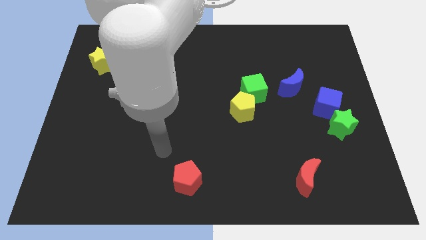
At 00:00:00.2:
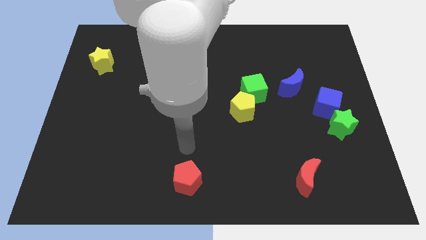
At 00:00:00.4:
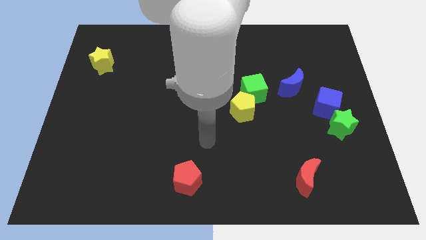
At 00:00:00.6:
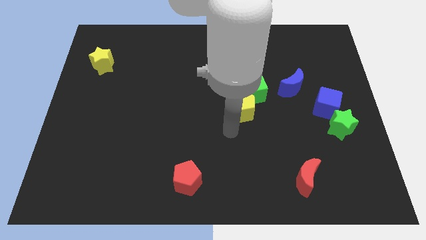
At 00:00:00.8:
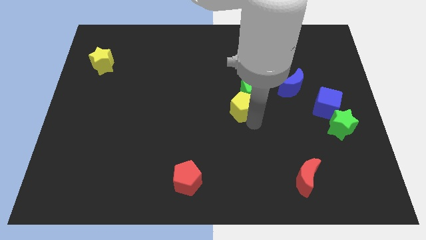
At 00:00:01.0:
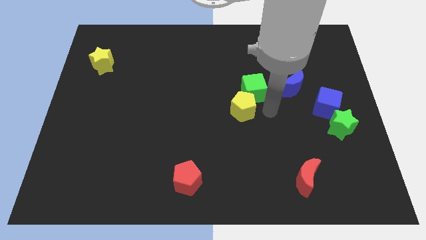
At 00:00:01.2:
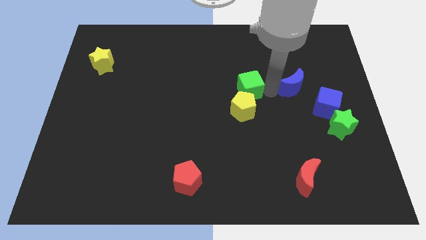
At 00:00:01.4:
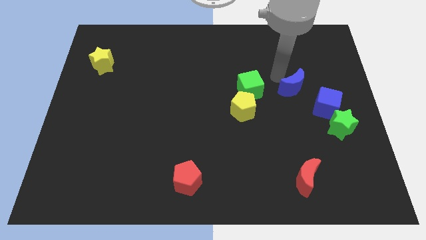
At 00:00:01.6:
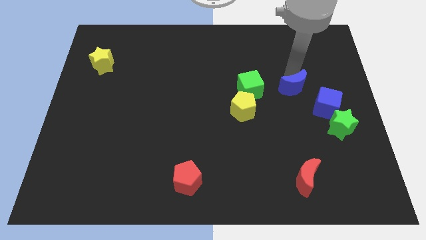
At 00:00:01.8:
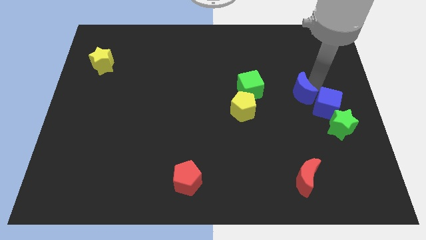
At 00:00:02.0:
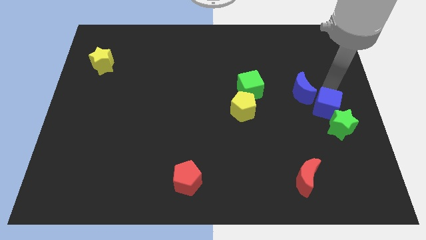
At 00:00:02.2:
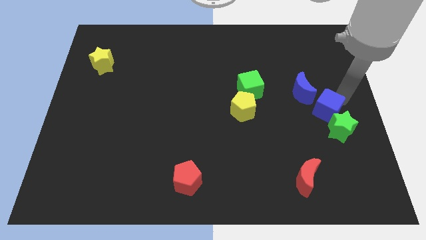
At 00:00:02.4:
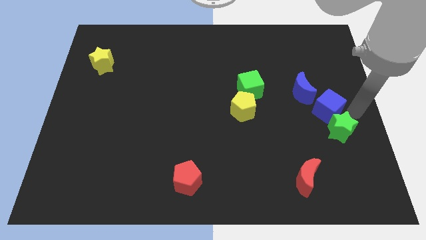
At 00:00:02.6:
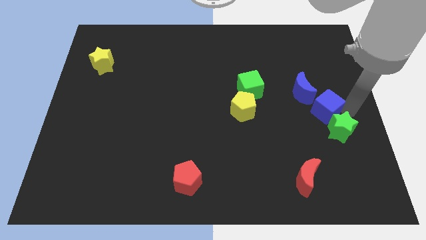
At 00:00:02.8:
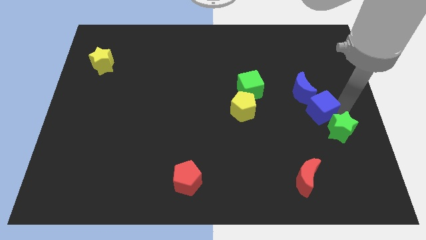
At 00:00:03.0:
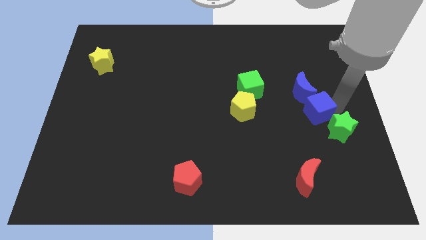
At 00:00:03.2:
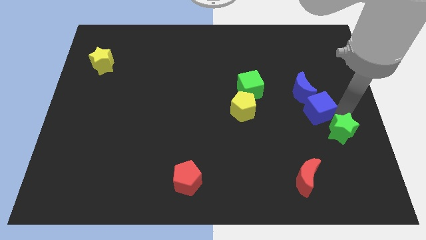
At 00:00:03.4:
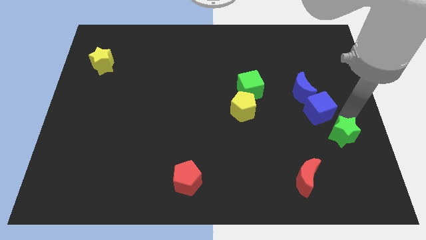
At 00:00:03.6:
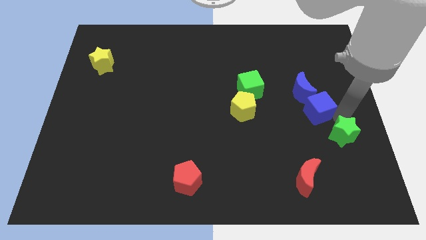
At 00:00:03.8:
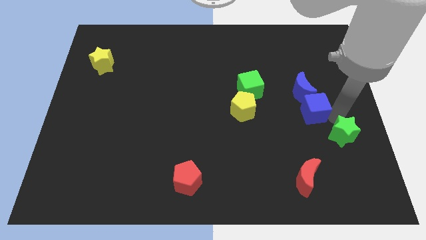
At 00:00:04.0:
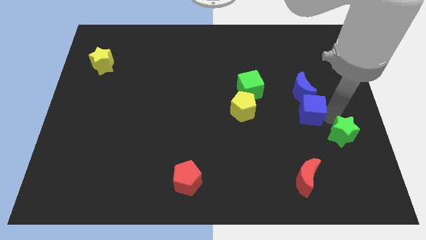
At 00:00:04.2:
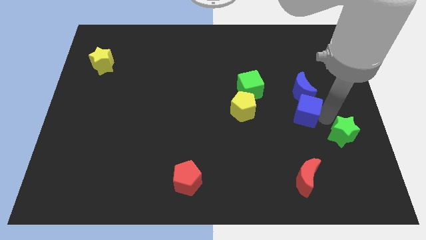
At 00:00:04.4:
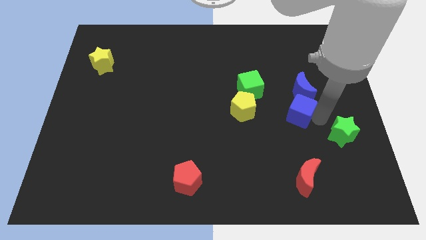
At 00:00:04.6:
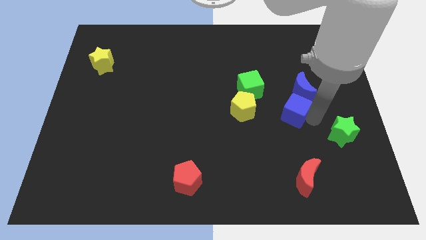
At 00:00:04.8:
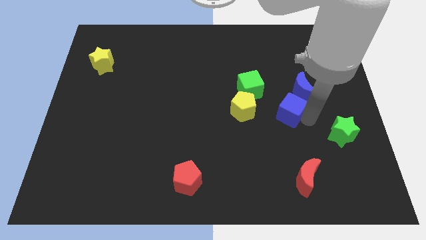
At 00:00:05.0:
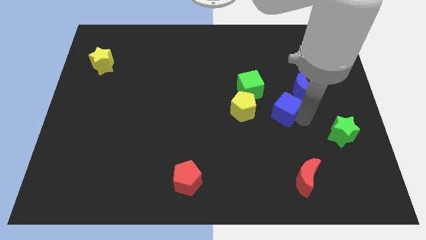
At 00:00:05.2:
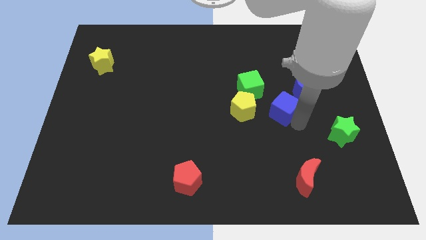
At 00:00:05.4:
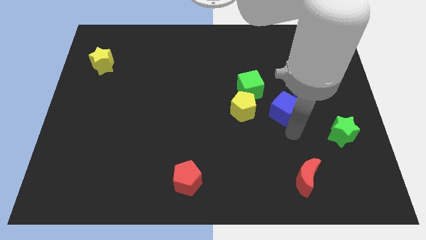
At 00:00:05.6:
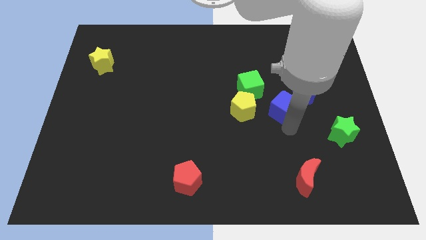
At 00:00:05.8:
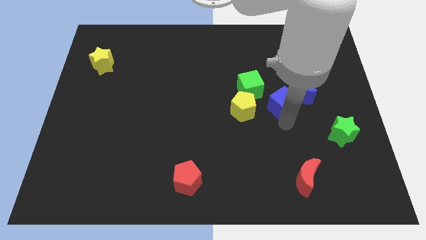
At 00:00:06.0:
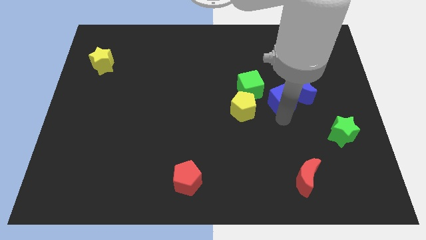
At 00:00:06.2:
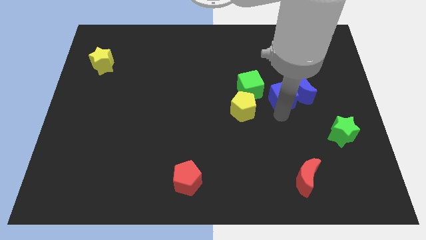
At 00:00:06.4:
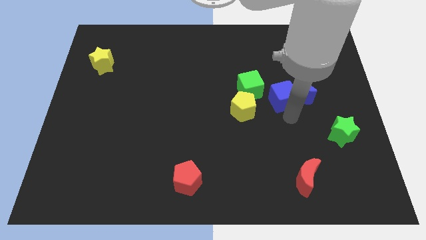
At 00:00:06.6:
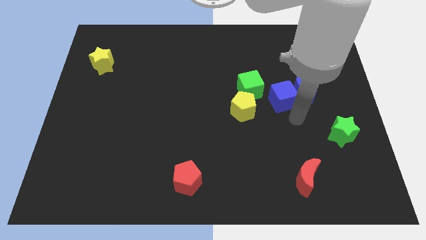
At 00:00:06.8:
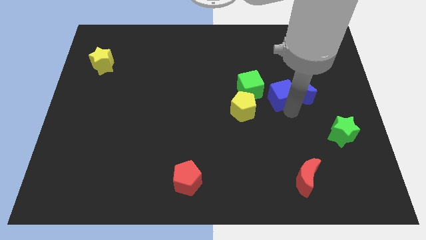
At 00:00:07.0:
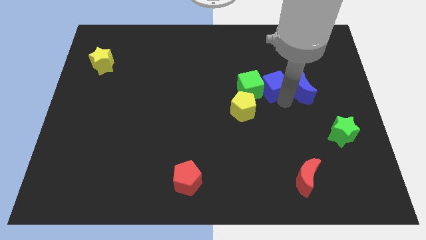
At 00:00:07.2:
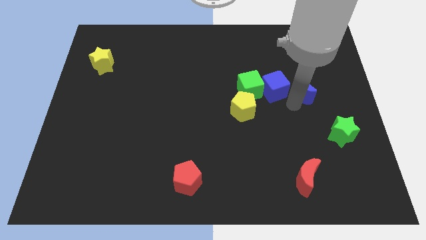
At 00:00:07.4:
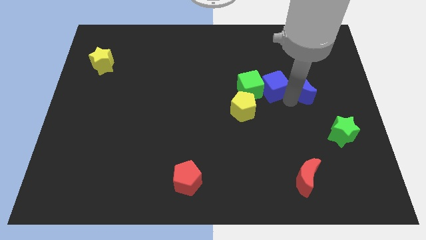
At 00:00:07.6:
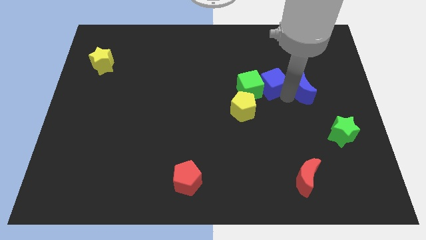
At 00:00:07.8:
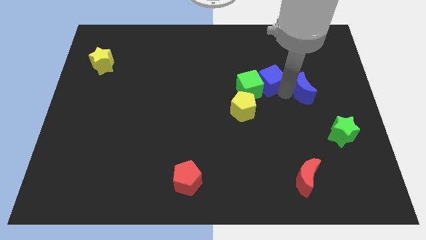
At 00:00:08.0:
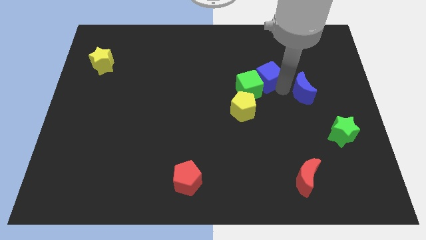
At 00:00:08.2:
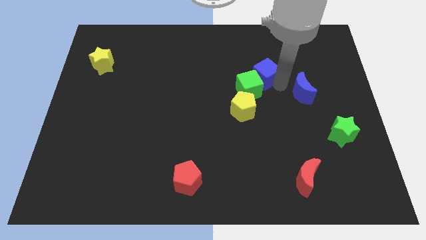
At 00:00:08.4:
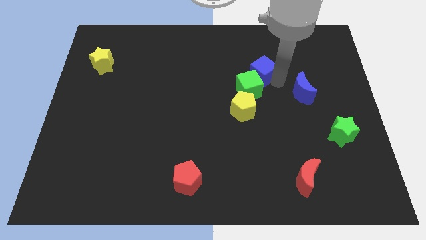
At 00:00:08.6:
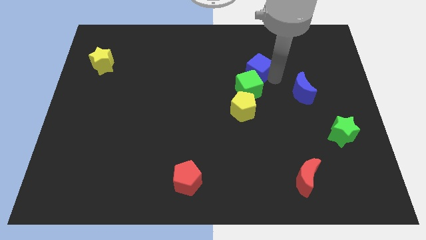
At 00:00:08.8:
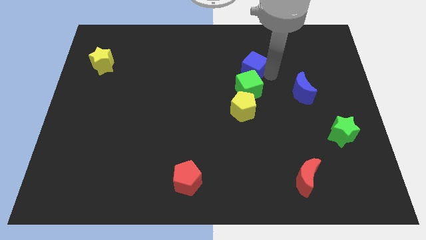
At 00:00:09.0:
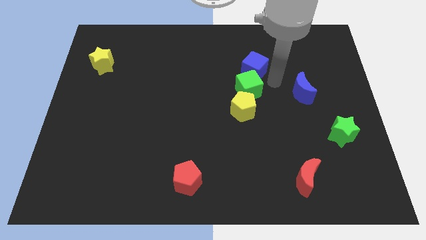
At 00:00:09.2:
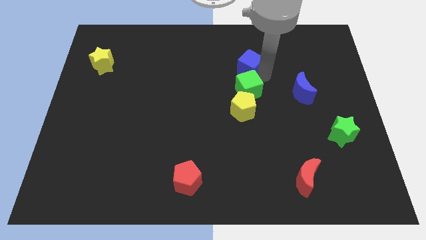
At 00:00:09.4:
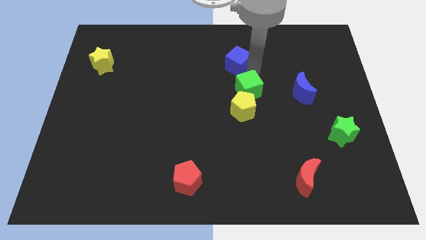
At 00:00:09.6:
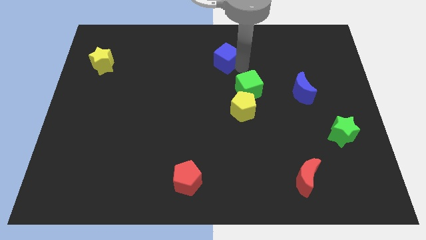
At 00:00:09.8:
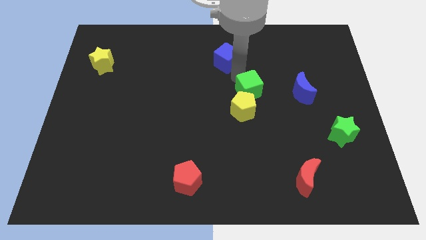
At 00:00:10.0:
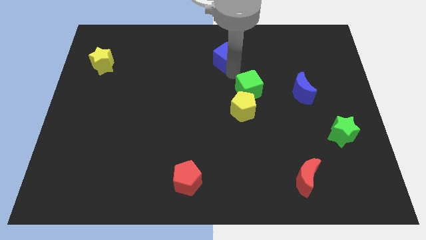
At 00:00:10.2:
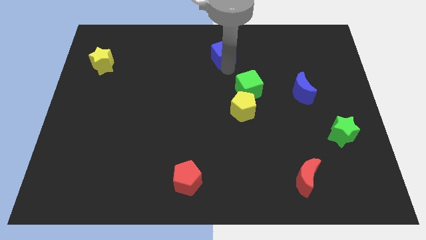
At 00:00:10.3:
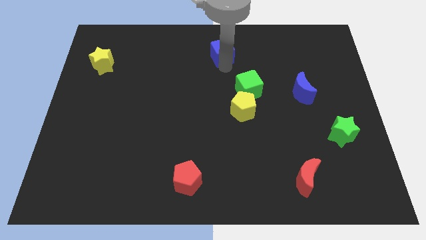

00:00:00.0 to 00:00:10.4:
push the blue cube to the top side

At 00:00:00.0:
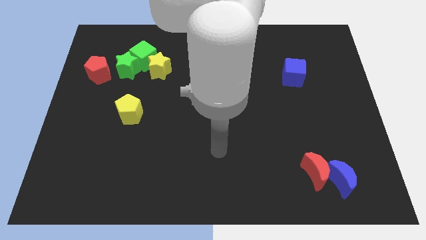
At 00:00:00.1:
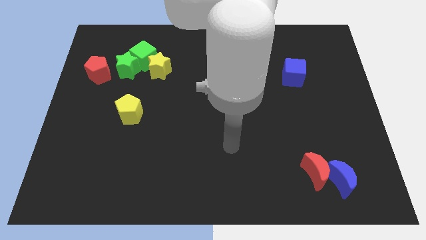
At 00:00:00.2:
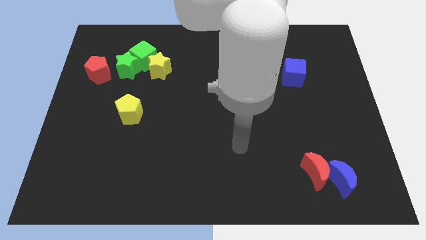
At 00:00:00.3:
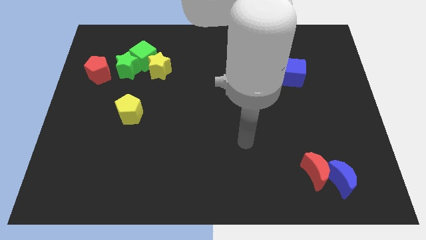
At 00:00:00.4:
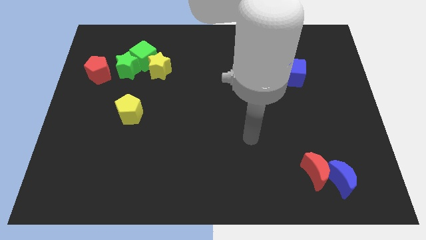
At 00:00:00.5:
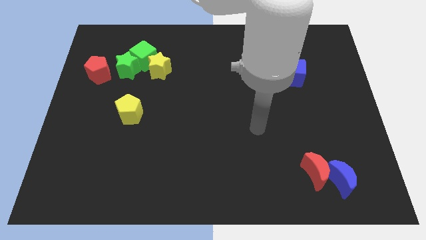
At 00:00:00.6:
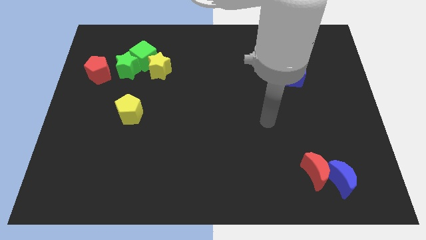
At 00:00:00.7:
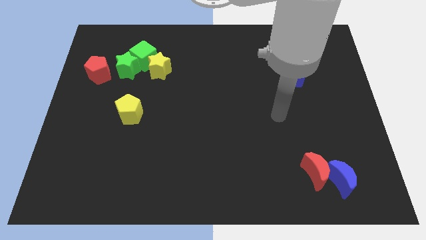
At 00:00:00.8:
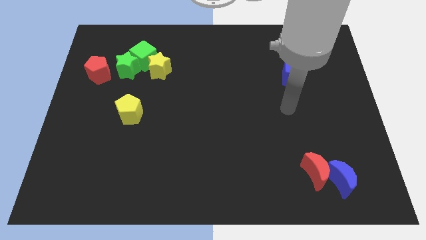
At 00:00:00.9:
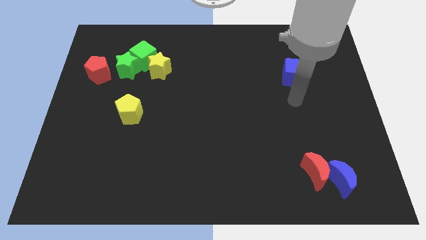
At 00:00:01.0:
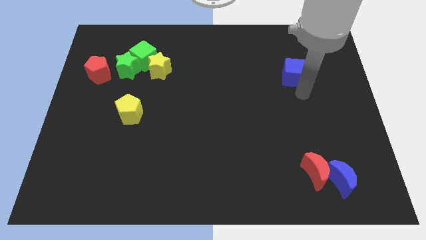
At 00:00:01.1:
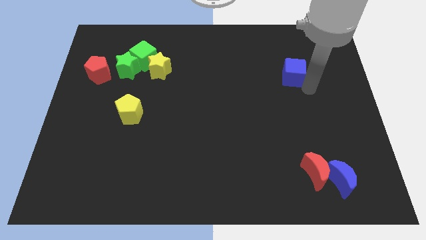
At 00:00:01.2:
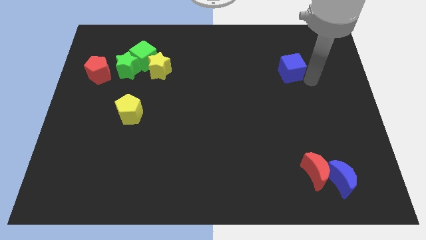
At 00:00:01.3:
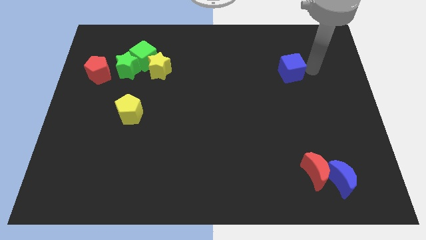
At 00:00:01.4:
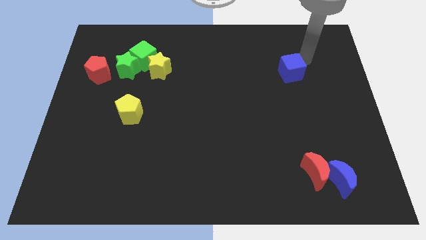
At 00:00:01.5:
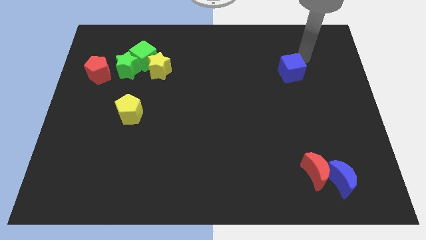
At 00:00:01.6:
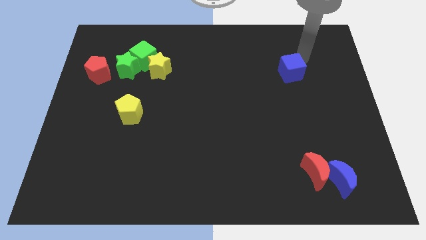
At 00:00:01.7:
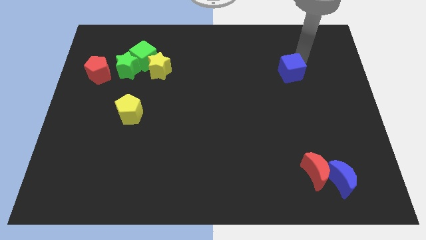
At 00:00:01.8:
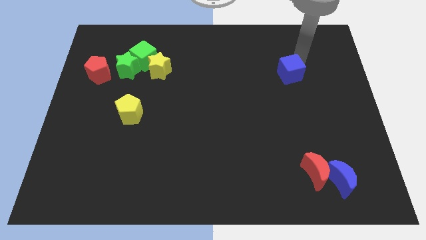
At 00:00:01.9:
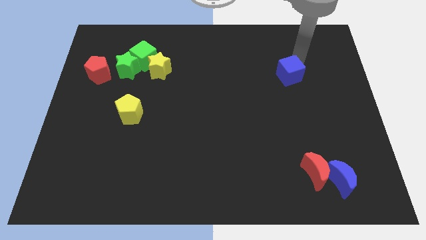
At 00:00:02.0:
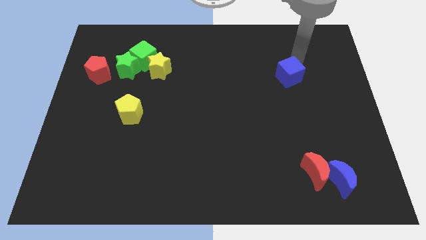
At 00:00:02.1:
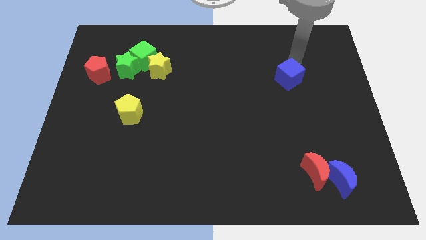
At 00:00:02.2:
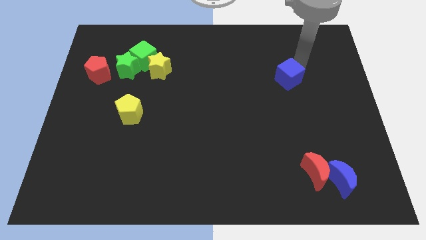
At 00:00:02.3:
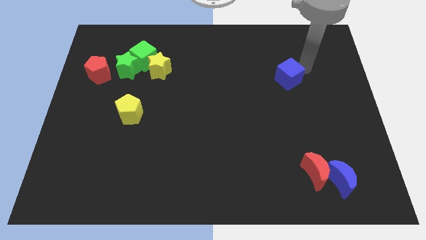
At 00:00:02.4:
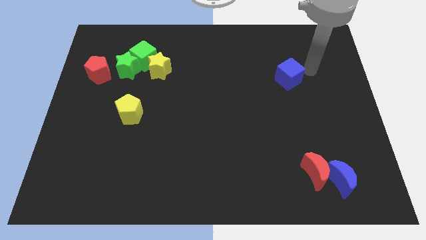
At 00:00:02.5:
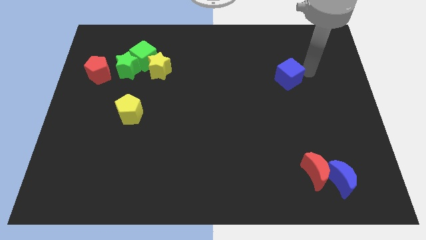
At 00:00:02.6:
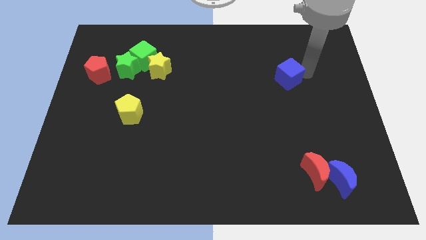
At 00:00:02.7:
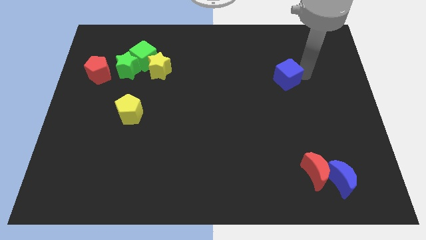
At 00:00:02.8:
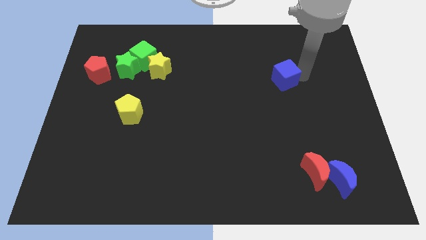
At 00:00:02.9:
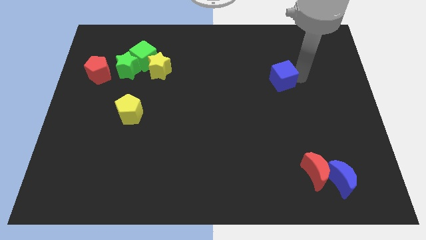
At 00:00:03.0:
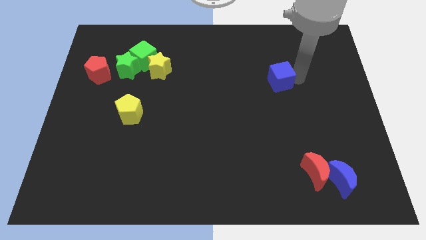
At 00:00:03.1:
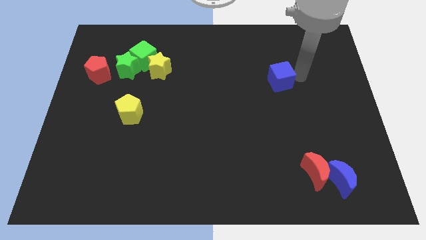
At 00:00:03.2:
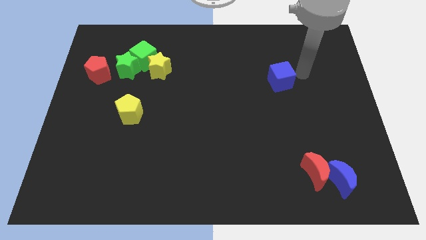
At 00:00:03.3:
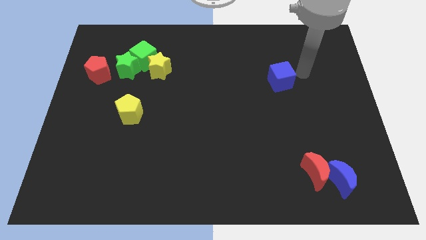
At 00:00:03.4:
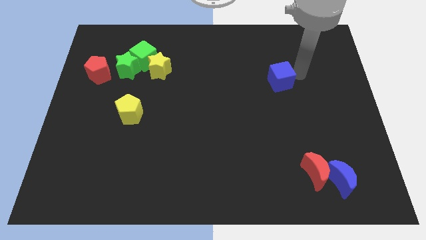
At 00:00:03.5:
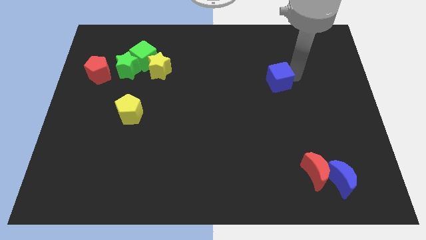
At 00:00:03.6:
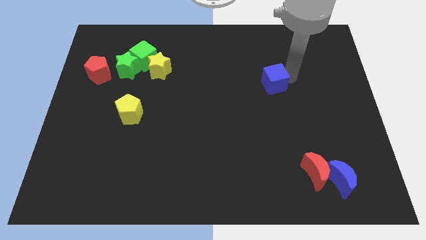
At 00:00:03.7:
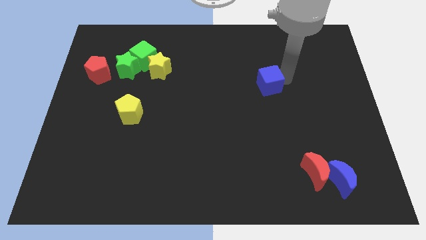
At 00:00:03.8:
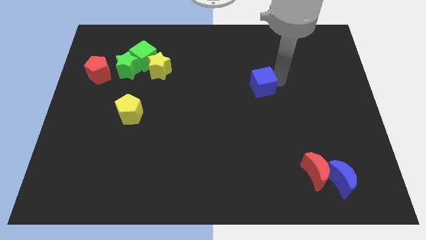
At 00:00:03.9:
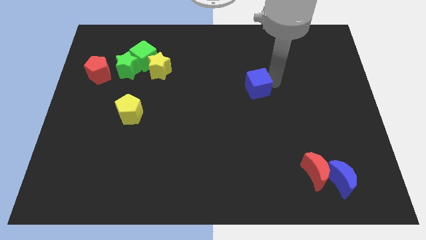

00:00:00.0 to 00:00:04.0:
push the blue cube to the center of the board
